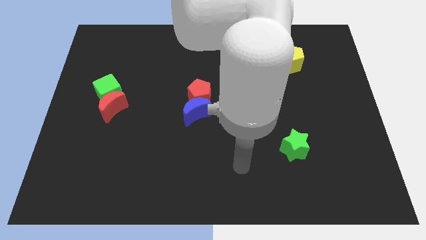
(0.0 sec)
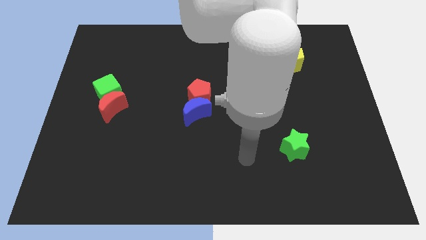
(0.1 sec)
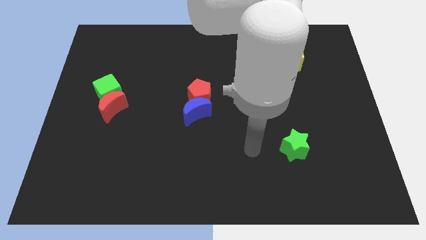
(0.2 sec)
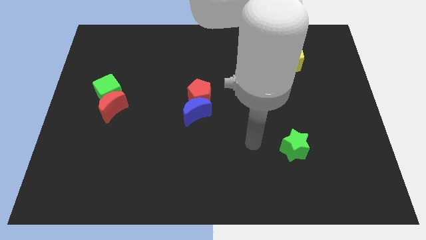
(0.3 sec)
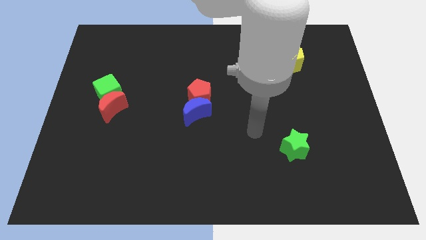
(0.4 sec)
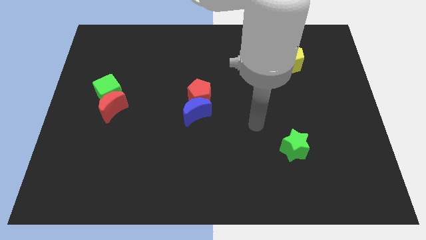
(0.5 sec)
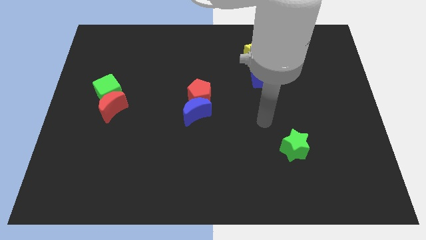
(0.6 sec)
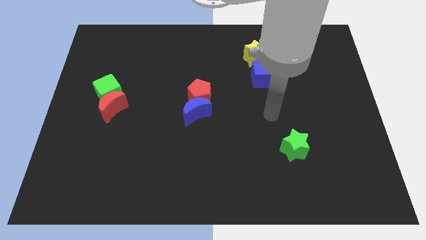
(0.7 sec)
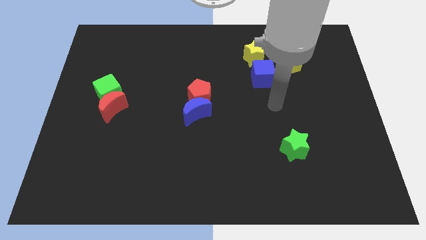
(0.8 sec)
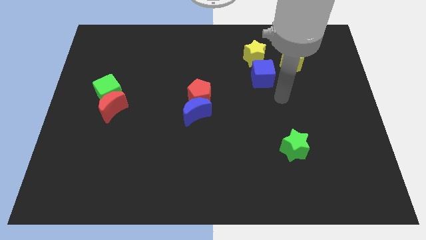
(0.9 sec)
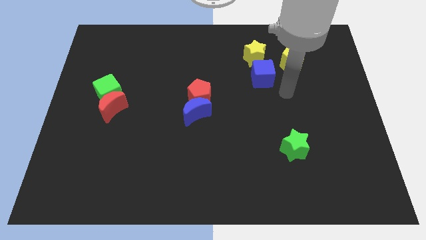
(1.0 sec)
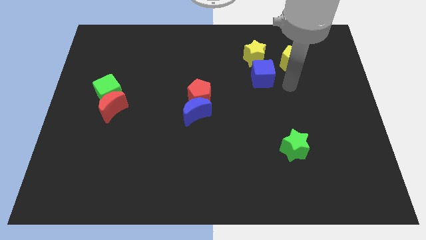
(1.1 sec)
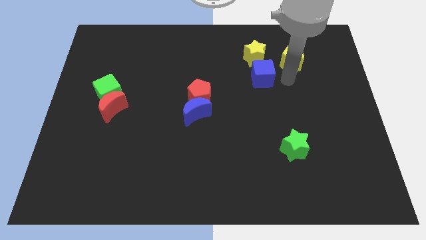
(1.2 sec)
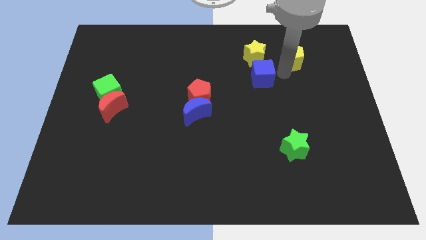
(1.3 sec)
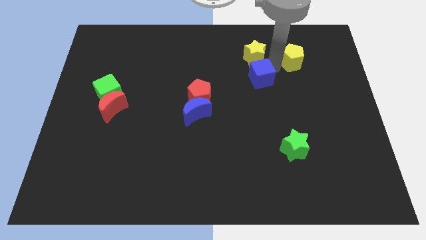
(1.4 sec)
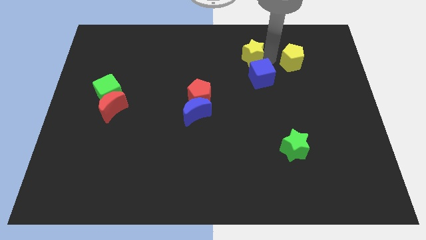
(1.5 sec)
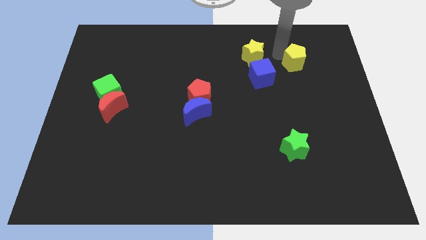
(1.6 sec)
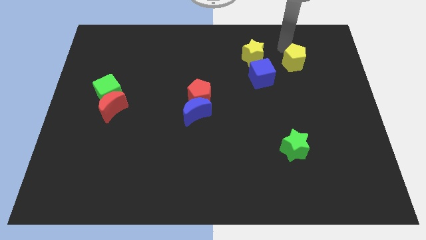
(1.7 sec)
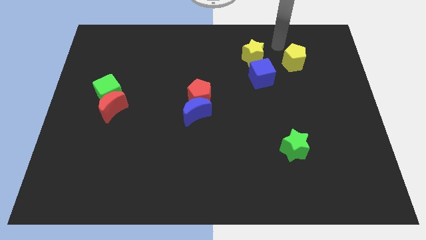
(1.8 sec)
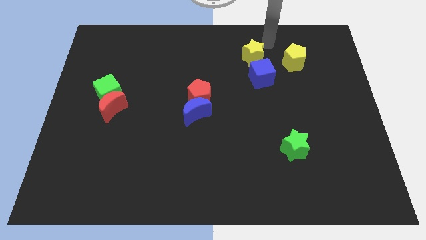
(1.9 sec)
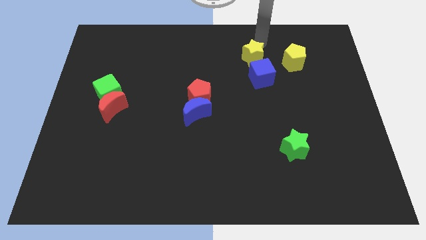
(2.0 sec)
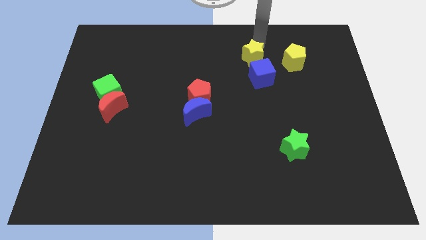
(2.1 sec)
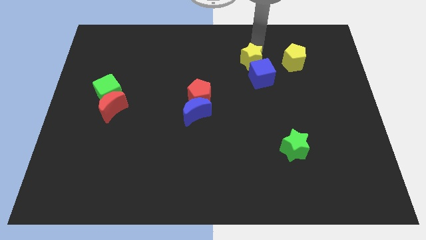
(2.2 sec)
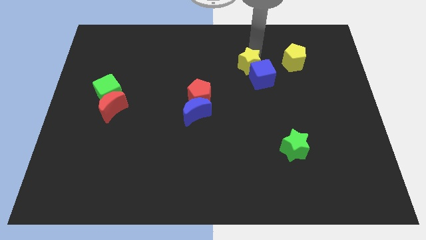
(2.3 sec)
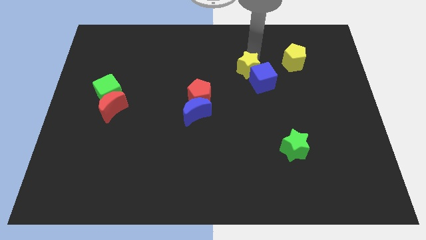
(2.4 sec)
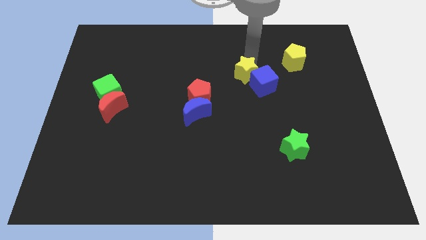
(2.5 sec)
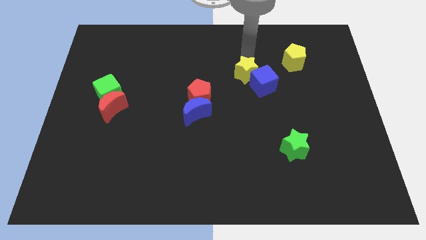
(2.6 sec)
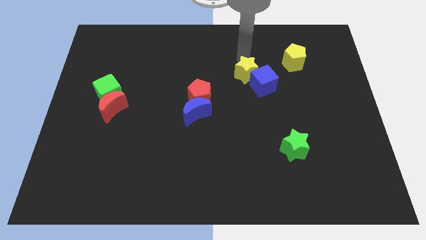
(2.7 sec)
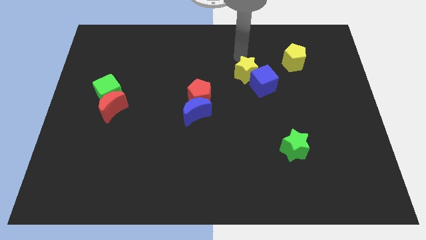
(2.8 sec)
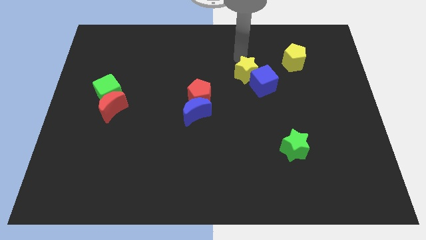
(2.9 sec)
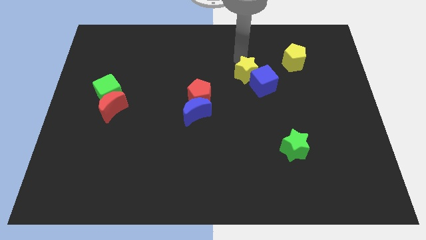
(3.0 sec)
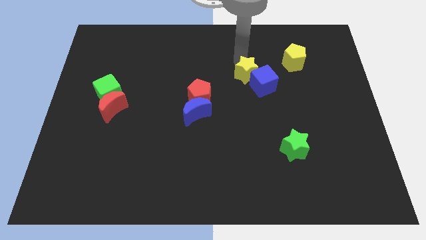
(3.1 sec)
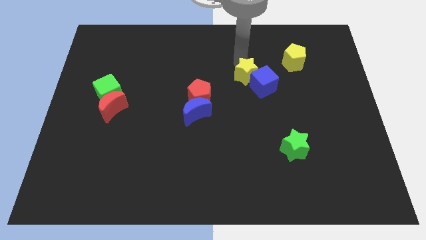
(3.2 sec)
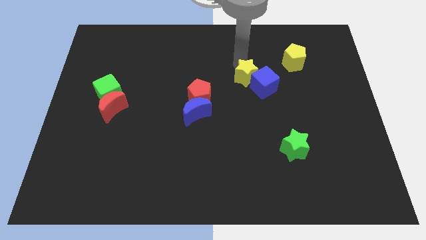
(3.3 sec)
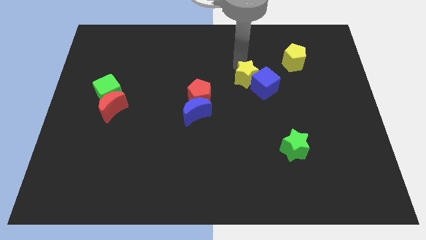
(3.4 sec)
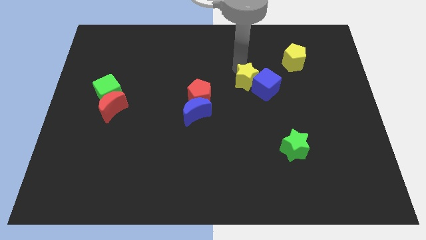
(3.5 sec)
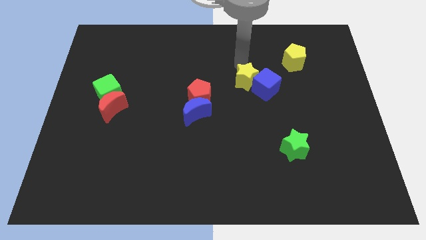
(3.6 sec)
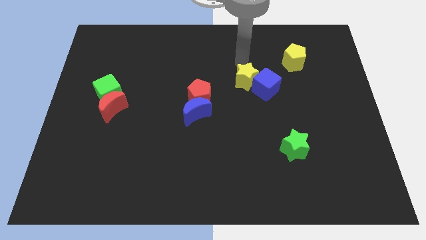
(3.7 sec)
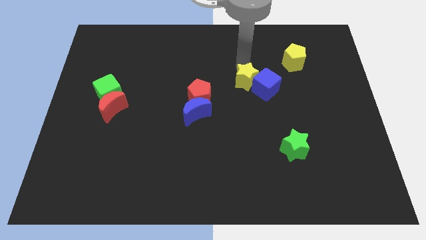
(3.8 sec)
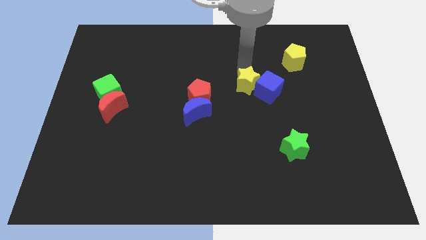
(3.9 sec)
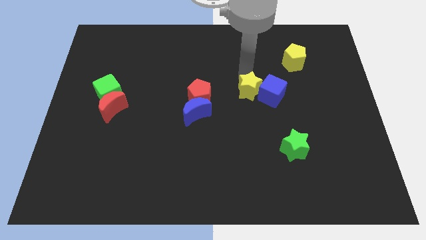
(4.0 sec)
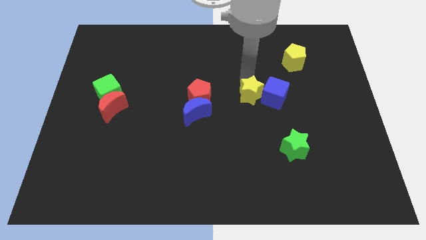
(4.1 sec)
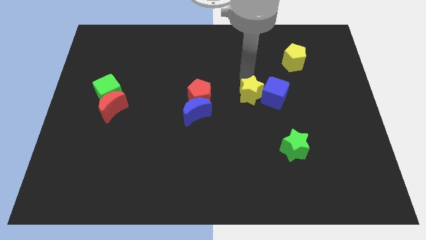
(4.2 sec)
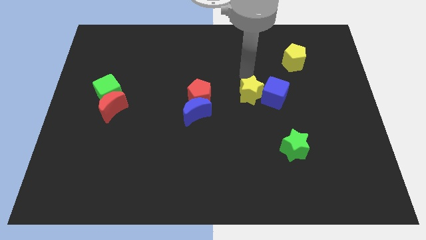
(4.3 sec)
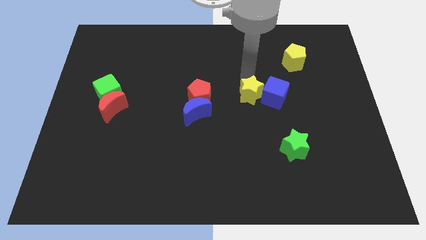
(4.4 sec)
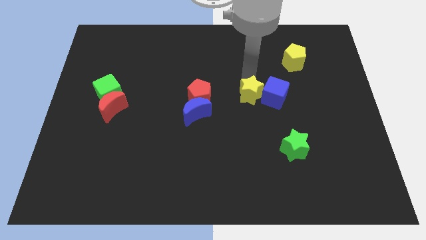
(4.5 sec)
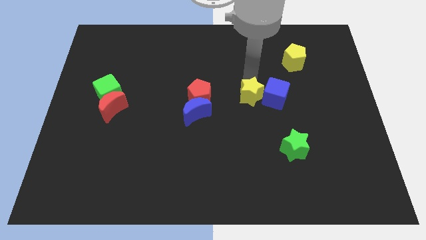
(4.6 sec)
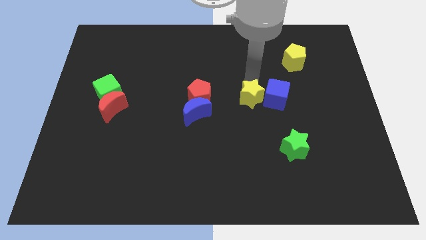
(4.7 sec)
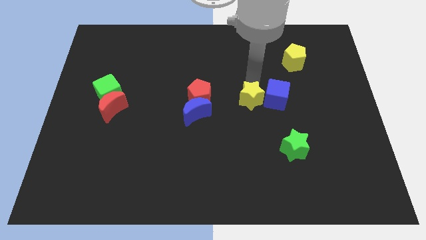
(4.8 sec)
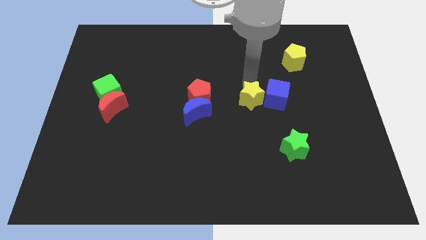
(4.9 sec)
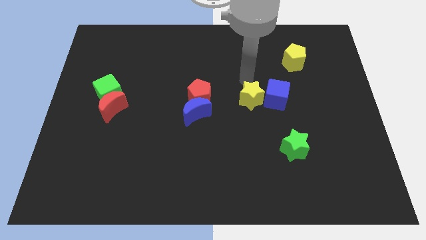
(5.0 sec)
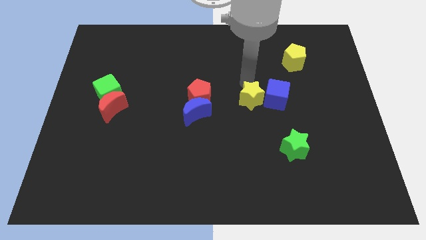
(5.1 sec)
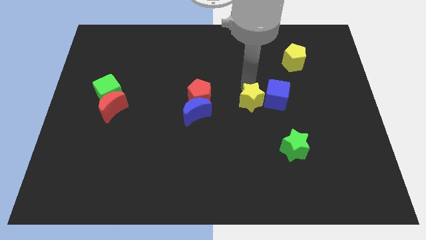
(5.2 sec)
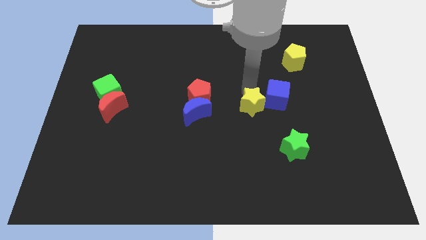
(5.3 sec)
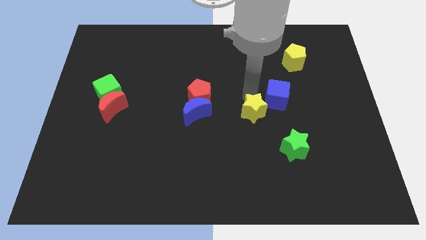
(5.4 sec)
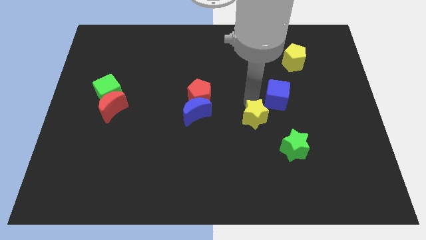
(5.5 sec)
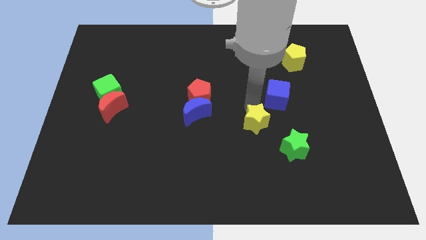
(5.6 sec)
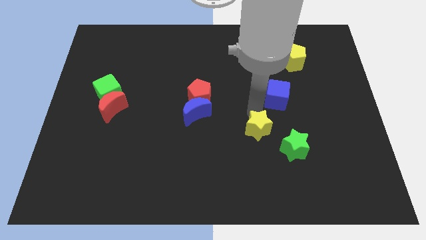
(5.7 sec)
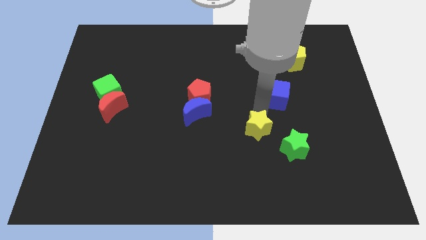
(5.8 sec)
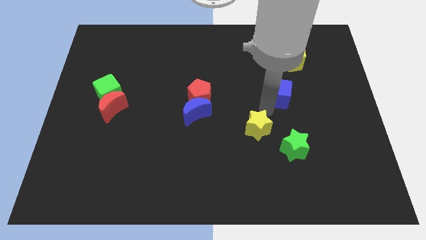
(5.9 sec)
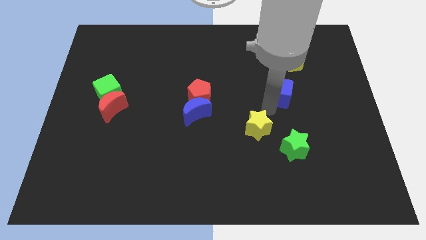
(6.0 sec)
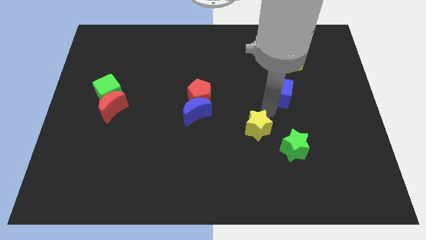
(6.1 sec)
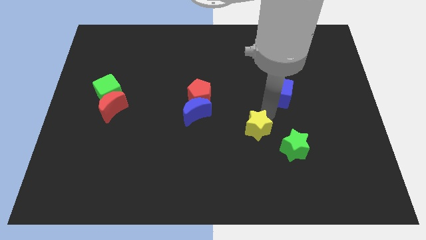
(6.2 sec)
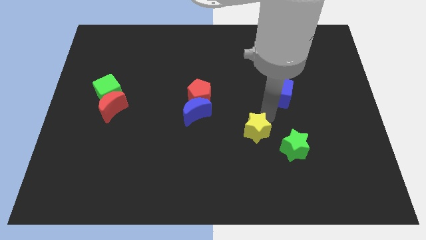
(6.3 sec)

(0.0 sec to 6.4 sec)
push the yellow star to the left of the green star
